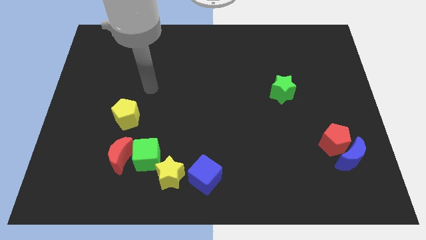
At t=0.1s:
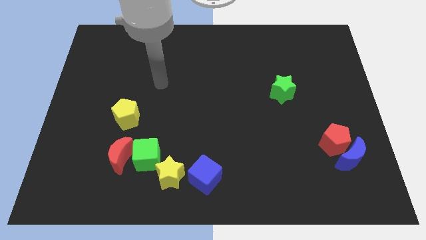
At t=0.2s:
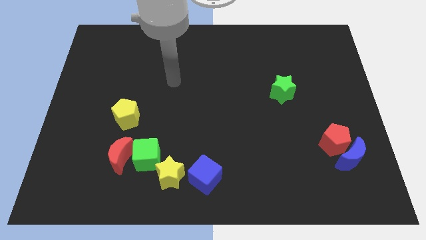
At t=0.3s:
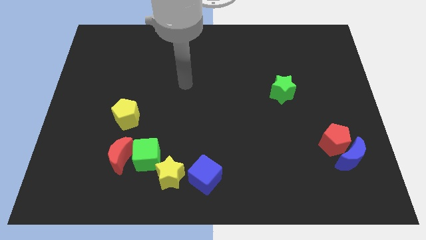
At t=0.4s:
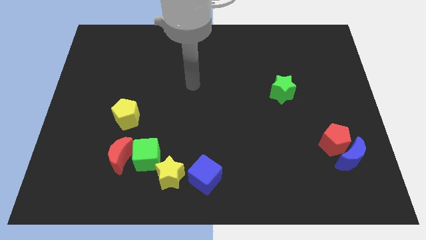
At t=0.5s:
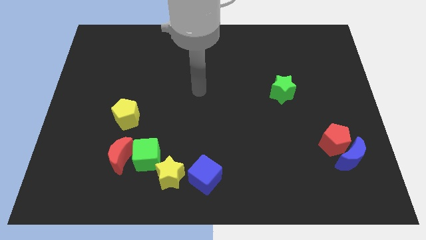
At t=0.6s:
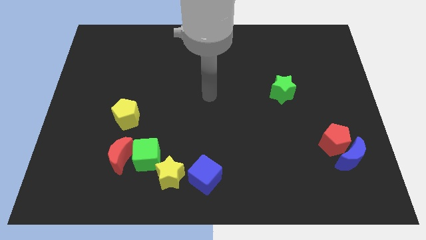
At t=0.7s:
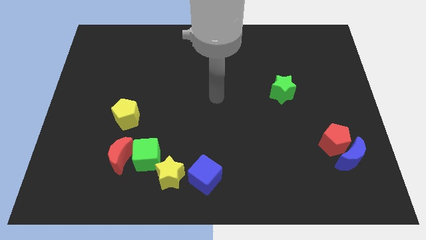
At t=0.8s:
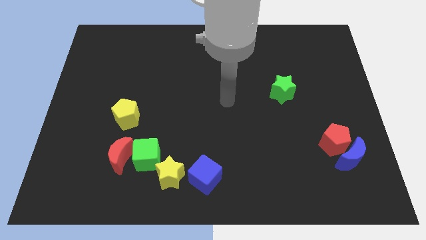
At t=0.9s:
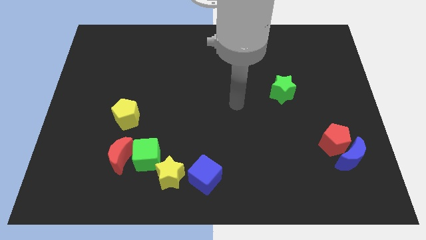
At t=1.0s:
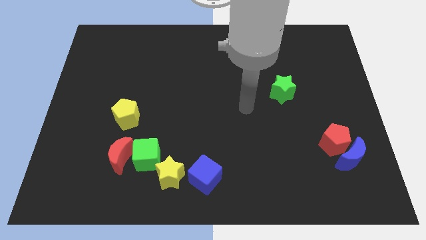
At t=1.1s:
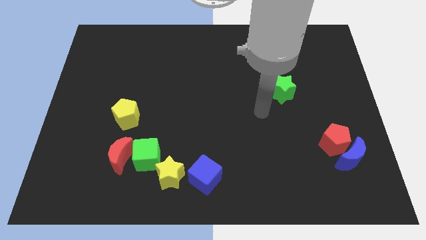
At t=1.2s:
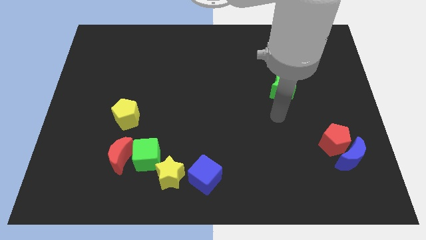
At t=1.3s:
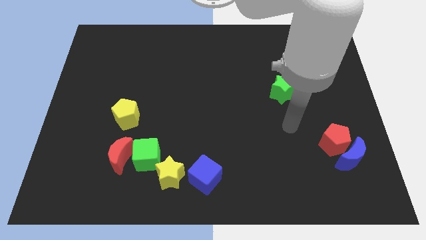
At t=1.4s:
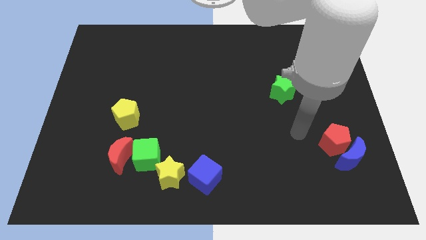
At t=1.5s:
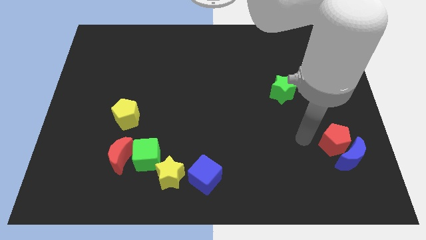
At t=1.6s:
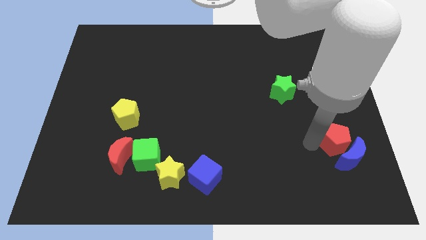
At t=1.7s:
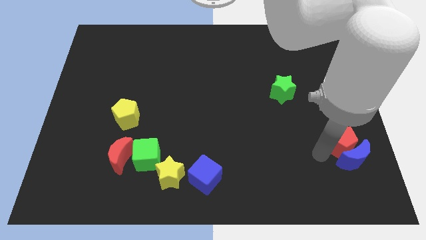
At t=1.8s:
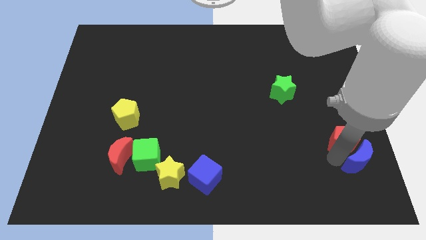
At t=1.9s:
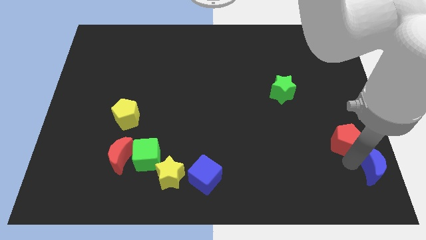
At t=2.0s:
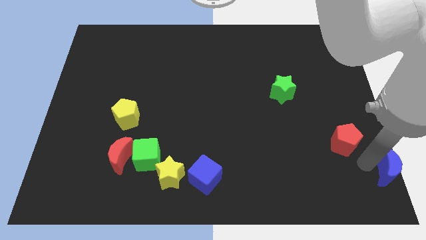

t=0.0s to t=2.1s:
move the red pentagon away from the blue moon

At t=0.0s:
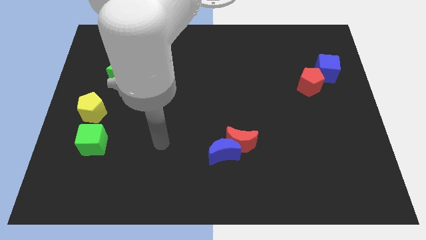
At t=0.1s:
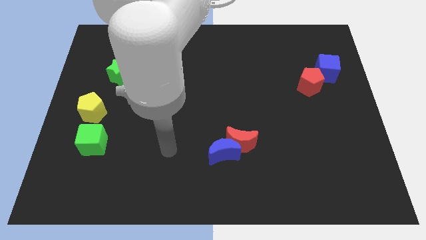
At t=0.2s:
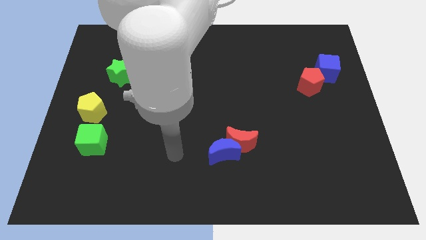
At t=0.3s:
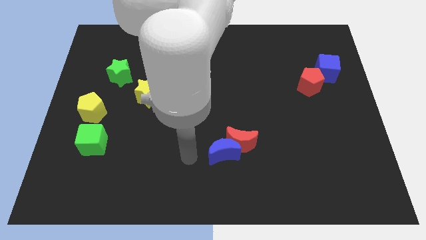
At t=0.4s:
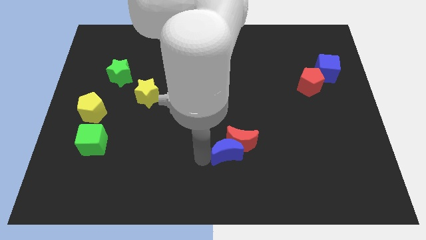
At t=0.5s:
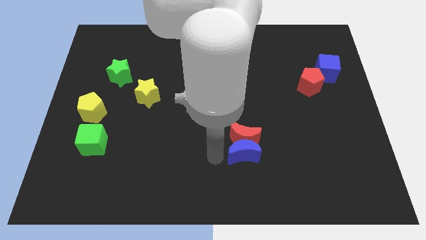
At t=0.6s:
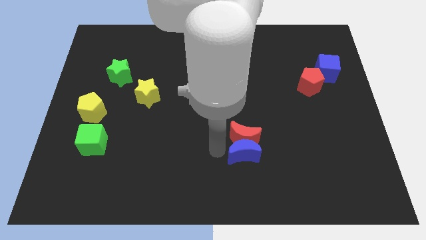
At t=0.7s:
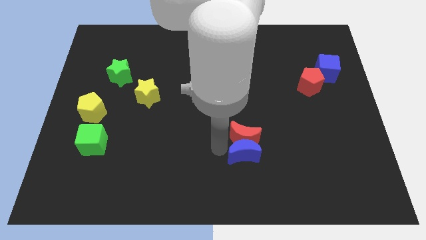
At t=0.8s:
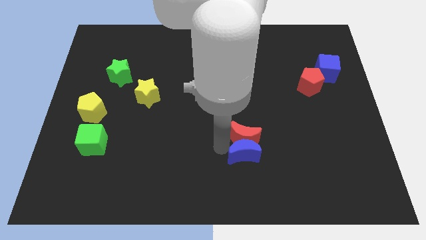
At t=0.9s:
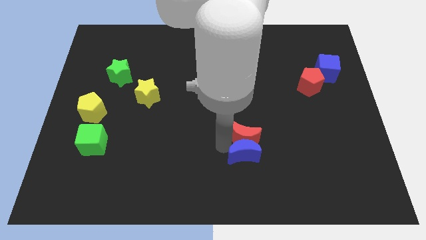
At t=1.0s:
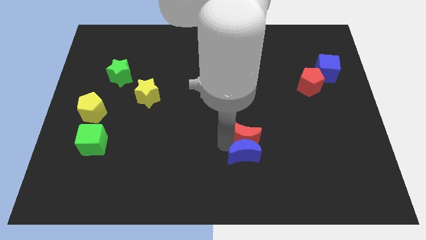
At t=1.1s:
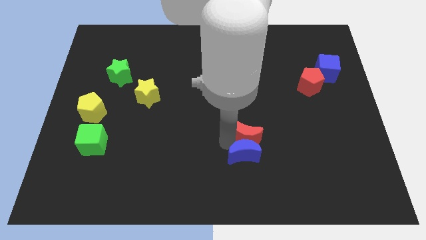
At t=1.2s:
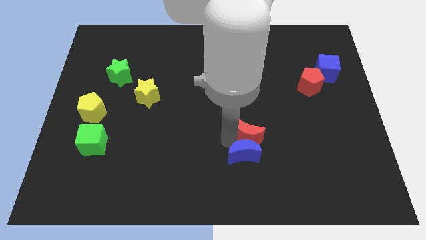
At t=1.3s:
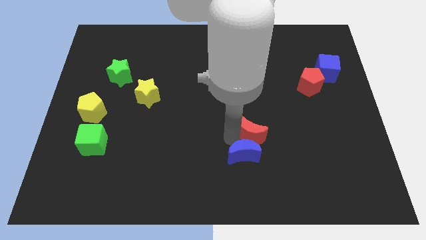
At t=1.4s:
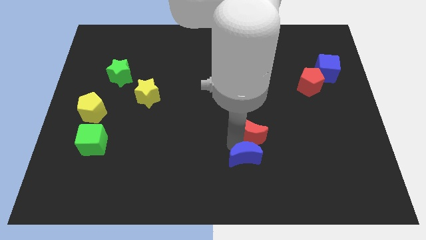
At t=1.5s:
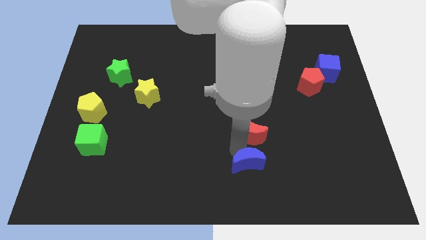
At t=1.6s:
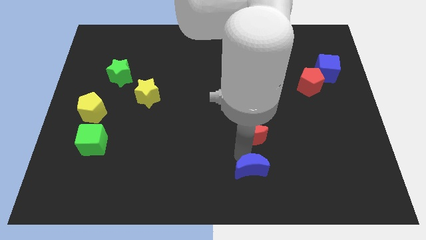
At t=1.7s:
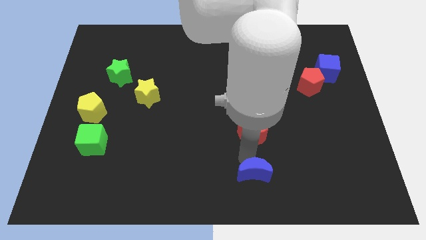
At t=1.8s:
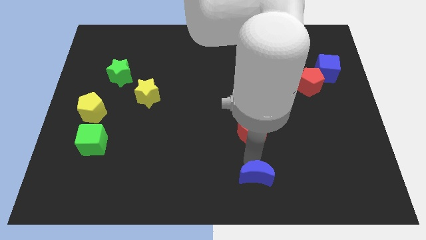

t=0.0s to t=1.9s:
separate the red moon from the blue moon

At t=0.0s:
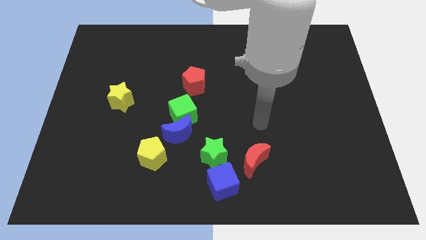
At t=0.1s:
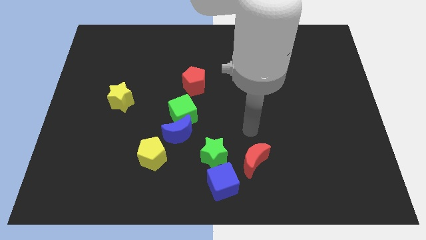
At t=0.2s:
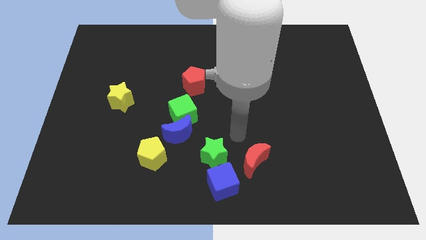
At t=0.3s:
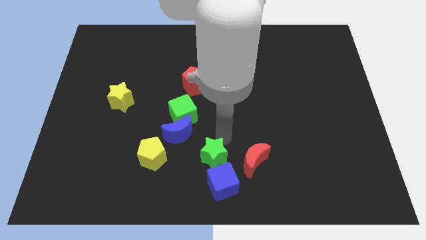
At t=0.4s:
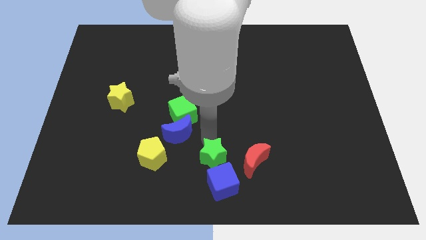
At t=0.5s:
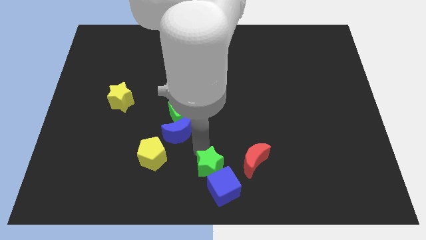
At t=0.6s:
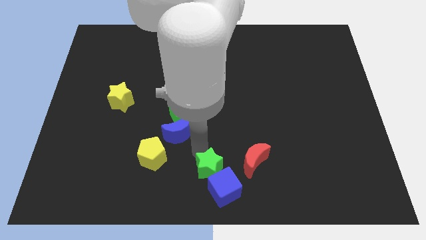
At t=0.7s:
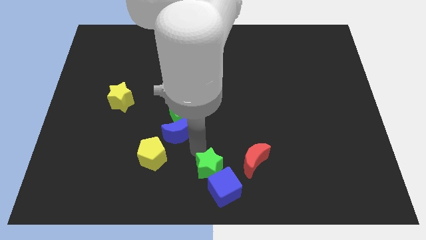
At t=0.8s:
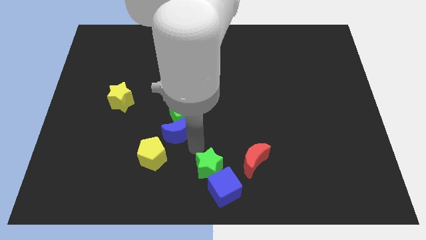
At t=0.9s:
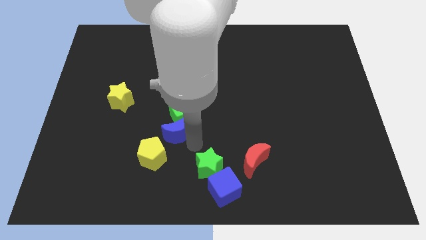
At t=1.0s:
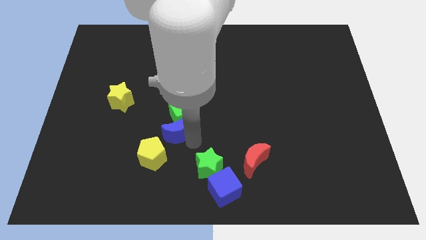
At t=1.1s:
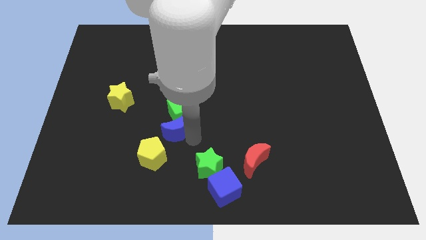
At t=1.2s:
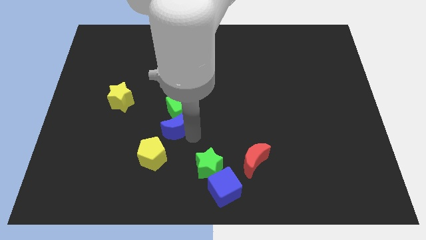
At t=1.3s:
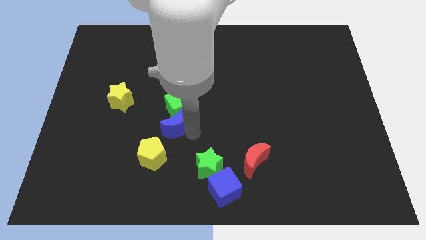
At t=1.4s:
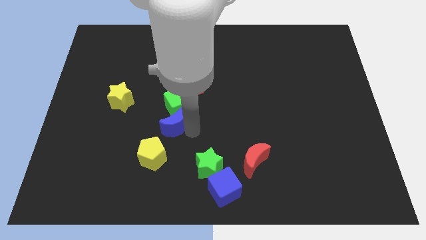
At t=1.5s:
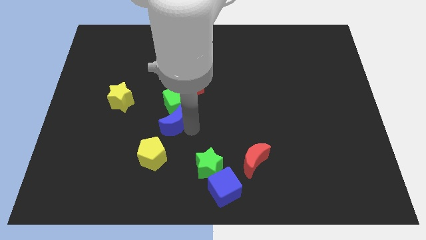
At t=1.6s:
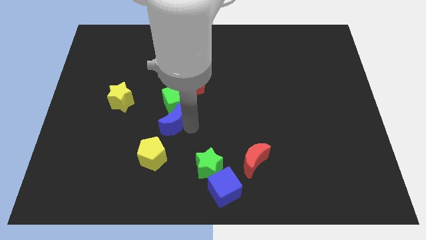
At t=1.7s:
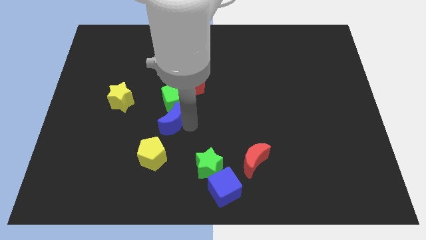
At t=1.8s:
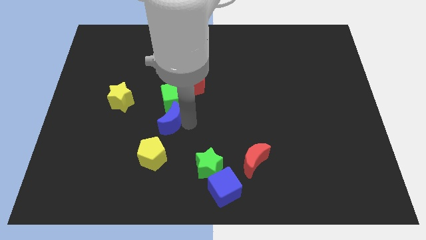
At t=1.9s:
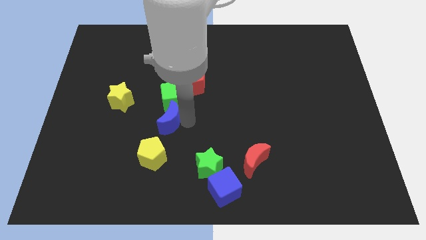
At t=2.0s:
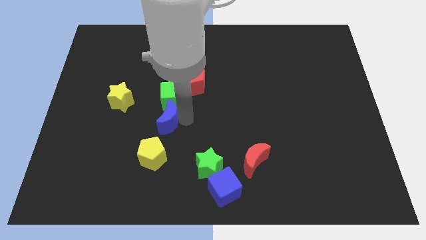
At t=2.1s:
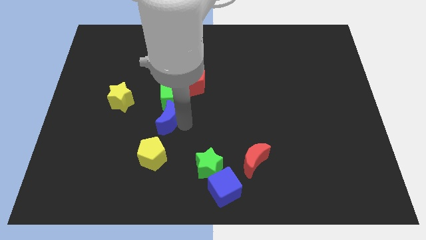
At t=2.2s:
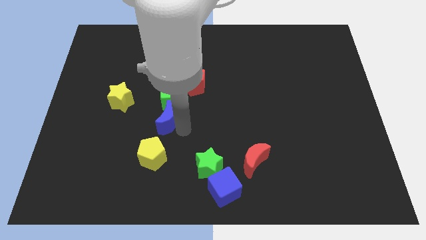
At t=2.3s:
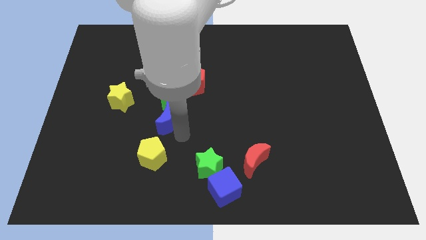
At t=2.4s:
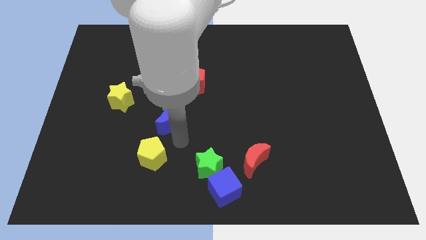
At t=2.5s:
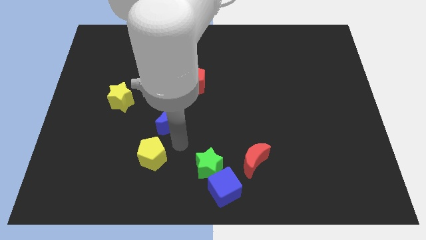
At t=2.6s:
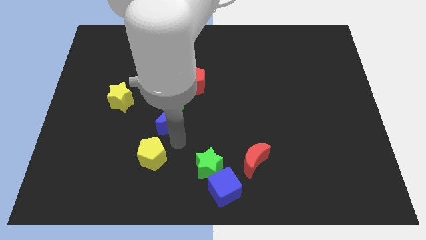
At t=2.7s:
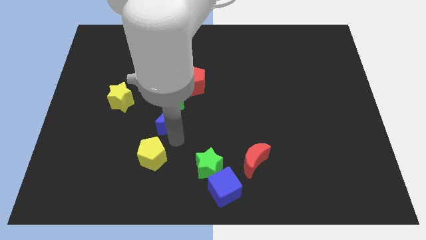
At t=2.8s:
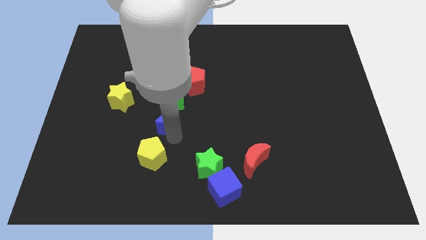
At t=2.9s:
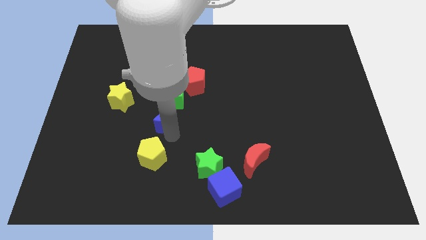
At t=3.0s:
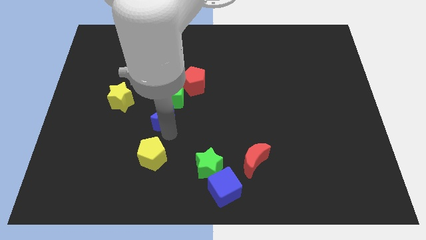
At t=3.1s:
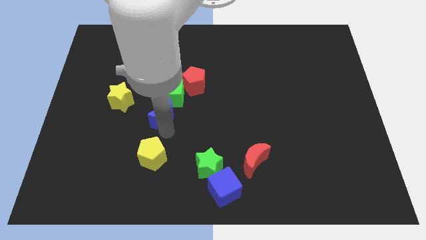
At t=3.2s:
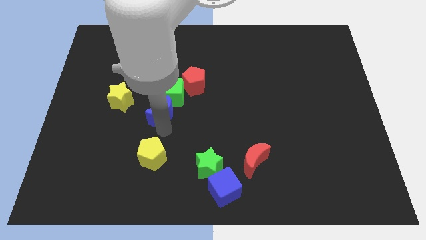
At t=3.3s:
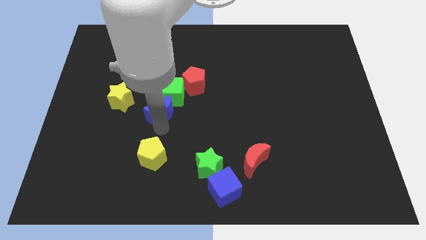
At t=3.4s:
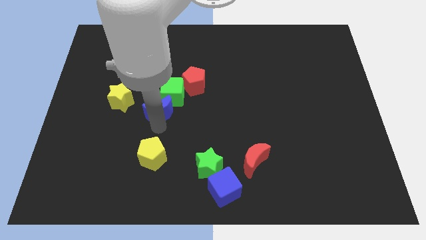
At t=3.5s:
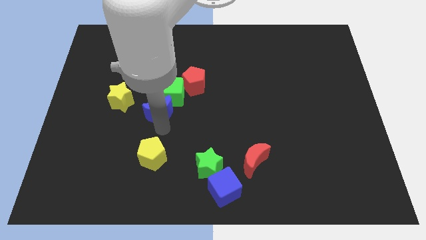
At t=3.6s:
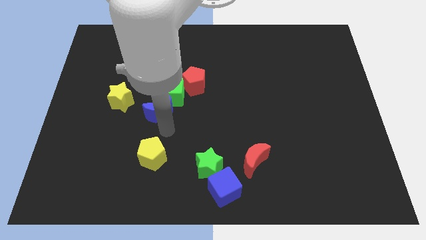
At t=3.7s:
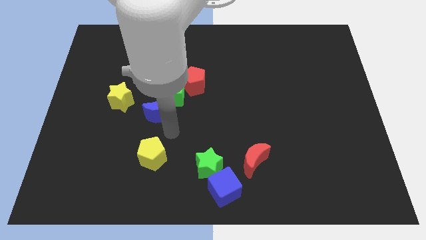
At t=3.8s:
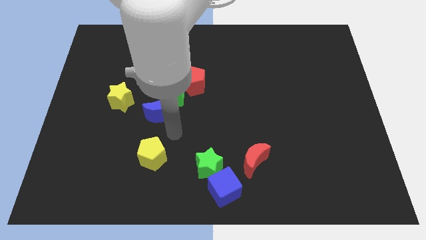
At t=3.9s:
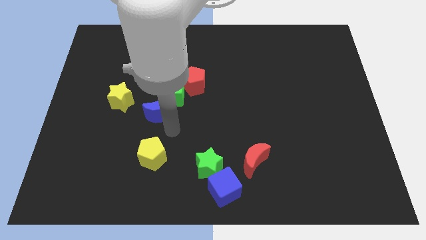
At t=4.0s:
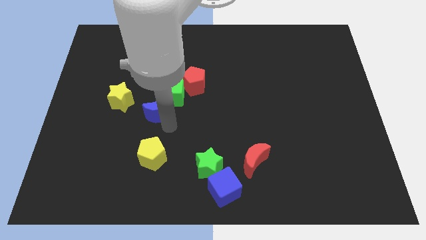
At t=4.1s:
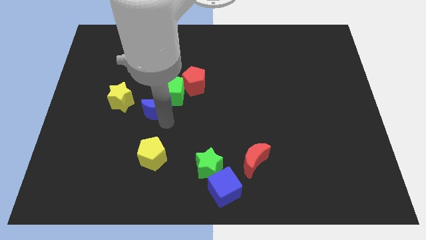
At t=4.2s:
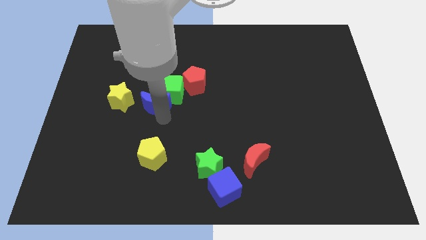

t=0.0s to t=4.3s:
pull the blue moon apart from the green cube, yellow pentagon, and green star

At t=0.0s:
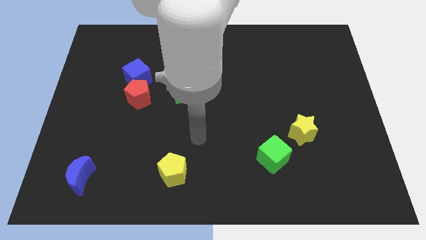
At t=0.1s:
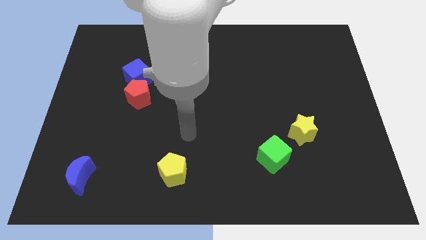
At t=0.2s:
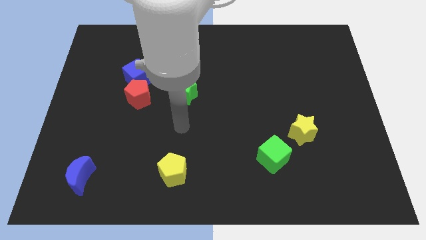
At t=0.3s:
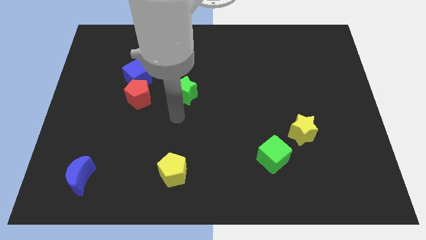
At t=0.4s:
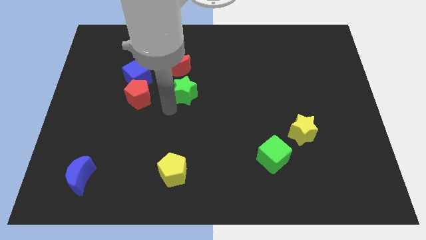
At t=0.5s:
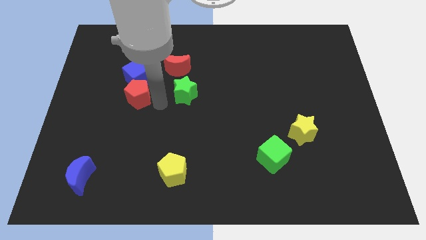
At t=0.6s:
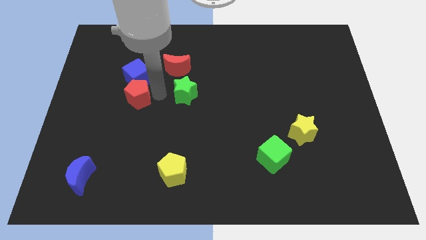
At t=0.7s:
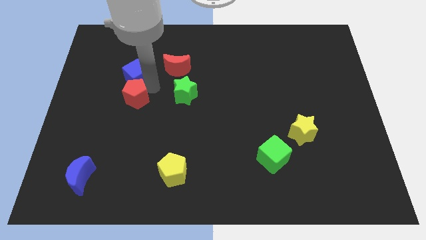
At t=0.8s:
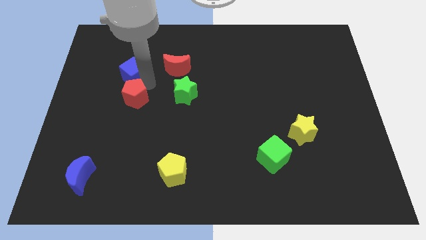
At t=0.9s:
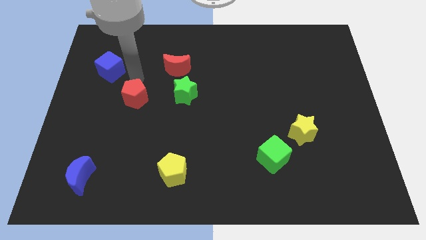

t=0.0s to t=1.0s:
move the red pentagon away from the blue cube
